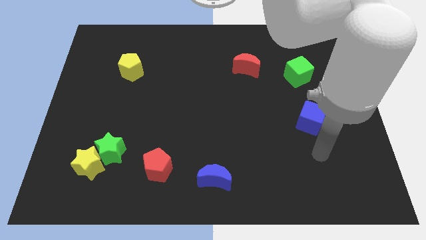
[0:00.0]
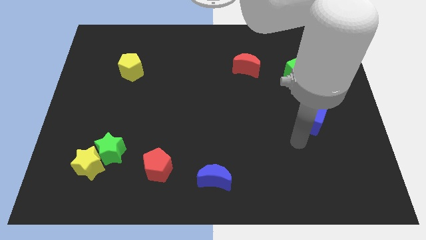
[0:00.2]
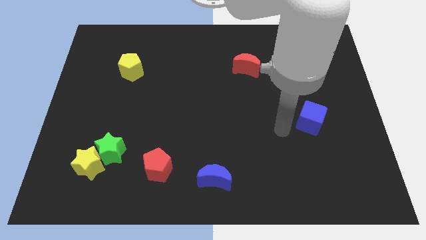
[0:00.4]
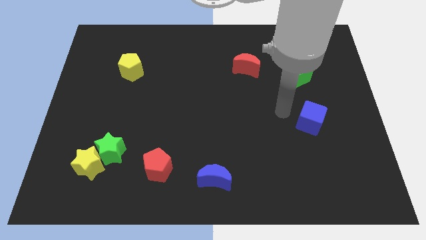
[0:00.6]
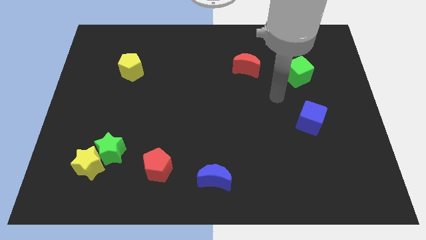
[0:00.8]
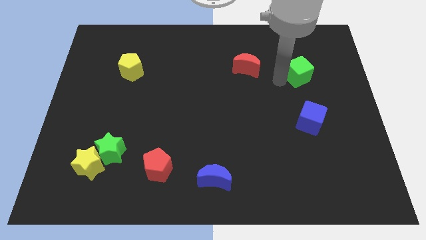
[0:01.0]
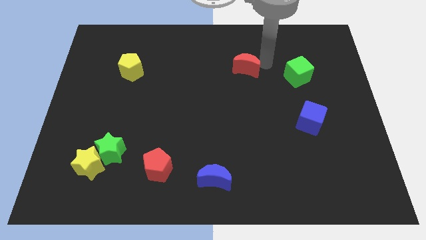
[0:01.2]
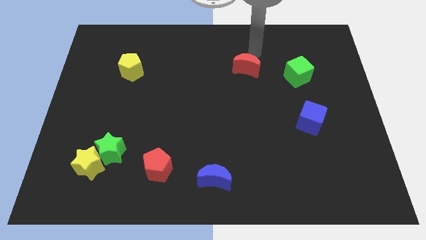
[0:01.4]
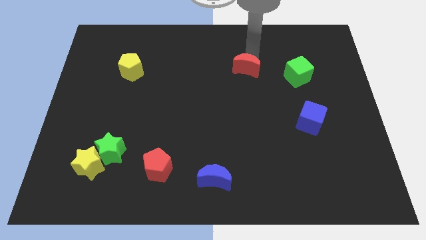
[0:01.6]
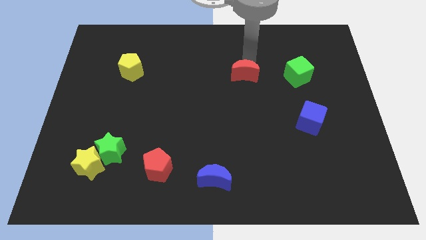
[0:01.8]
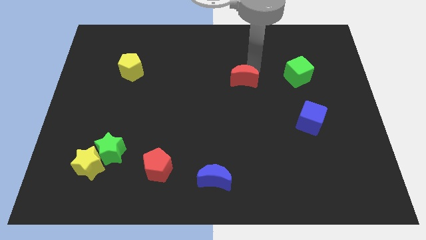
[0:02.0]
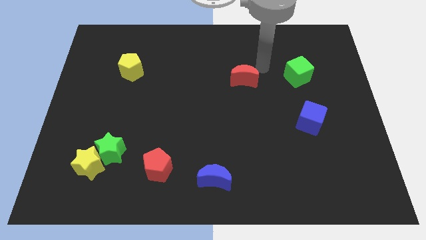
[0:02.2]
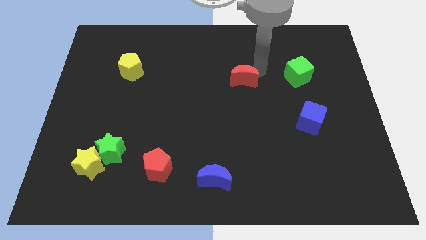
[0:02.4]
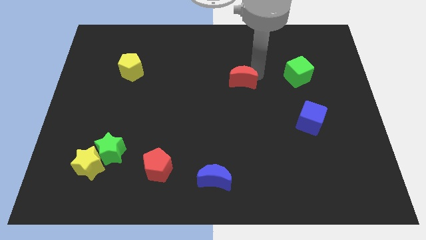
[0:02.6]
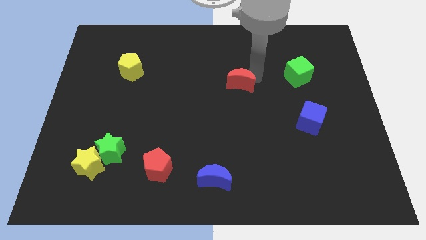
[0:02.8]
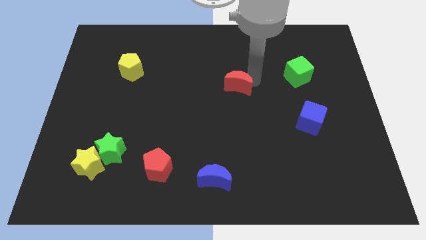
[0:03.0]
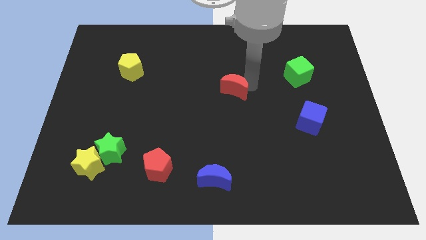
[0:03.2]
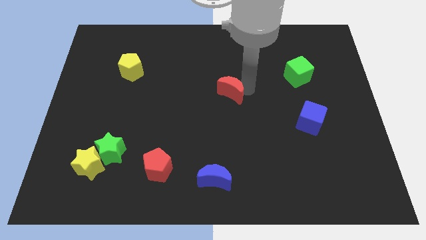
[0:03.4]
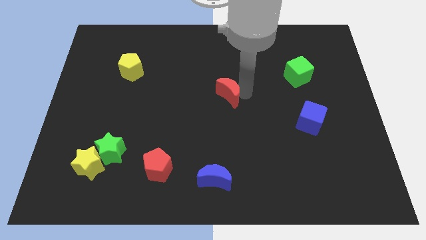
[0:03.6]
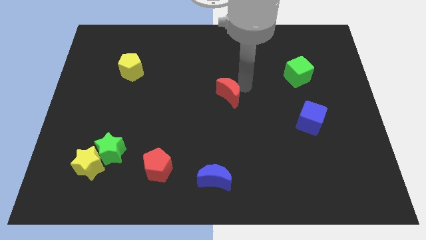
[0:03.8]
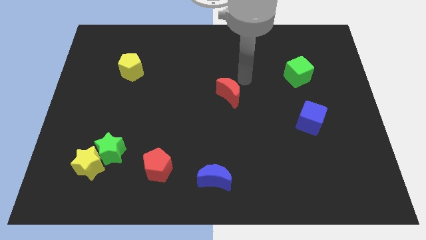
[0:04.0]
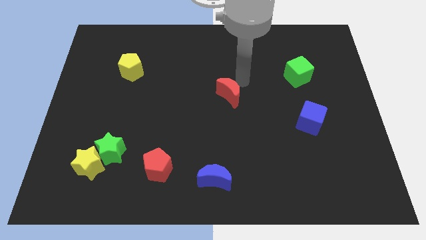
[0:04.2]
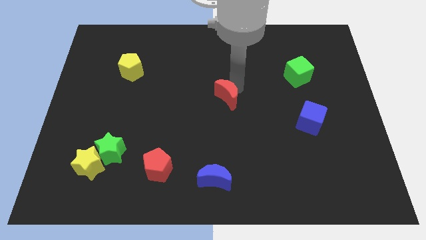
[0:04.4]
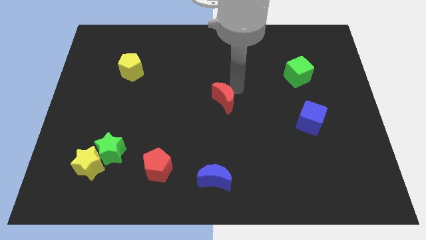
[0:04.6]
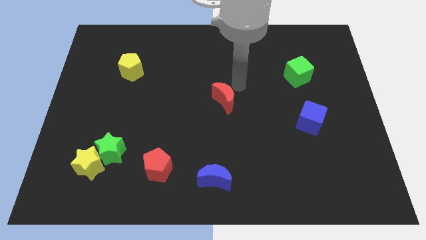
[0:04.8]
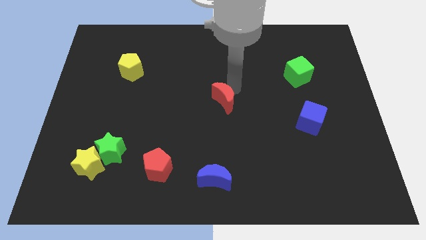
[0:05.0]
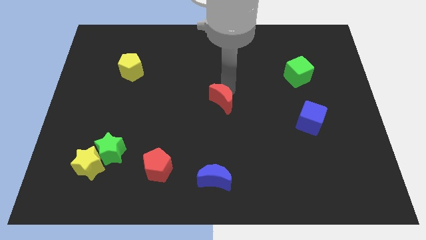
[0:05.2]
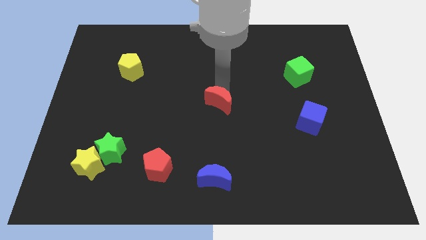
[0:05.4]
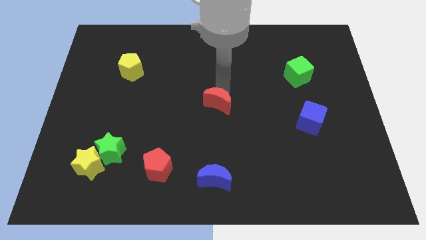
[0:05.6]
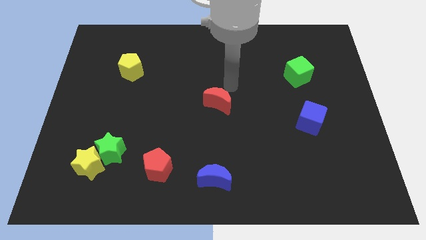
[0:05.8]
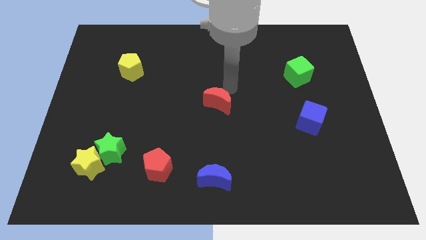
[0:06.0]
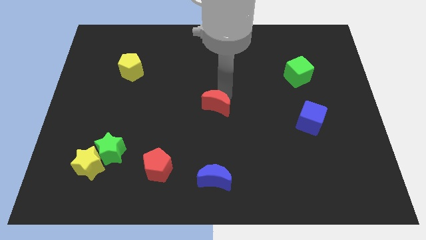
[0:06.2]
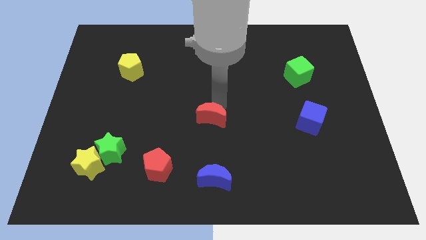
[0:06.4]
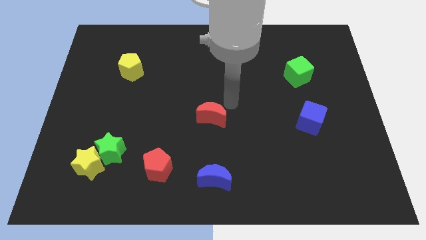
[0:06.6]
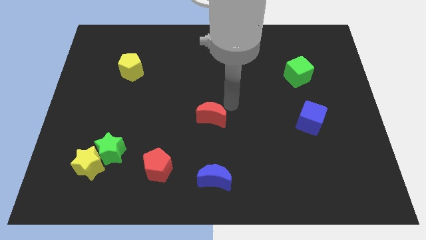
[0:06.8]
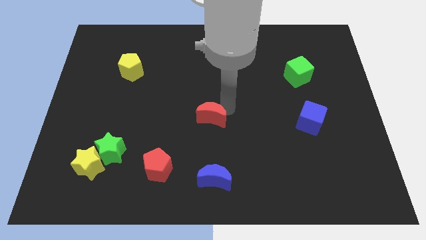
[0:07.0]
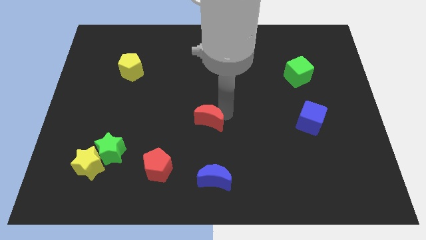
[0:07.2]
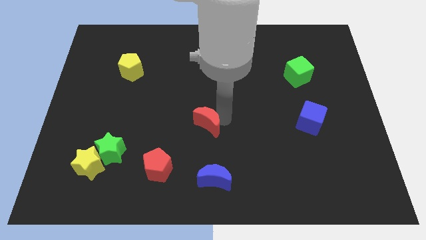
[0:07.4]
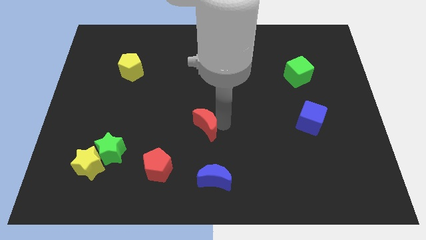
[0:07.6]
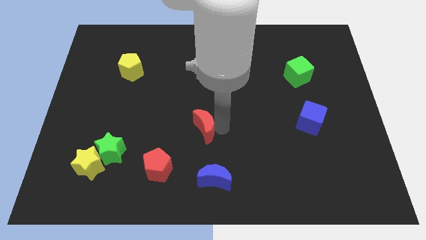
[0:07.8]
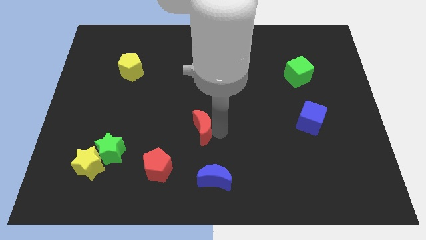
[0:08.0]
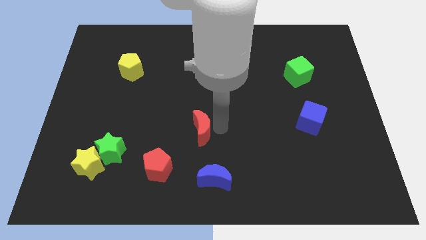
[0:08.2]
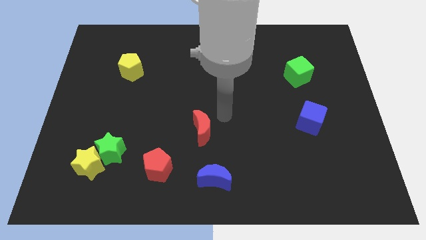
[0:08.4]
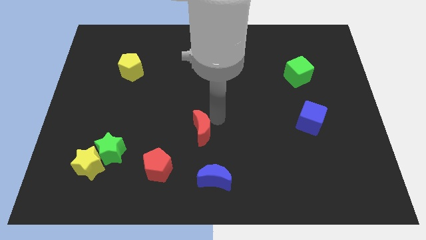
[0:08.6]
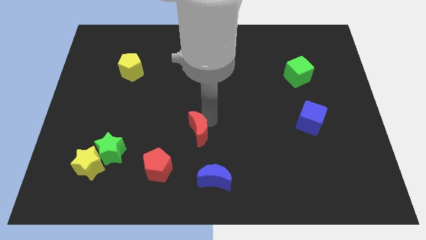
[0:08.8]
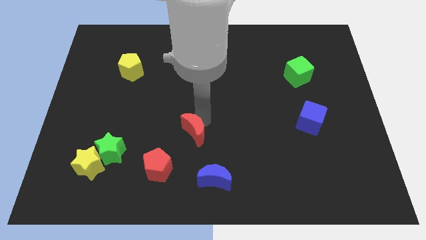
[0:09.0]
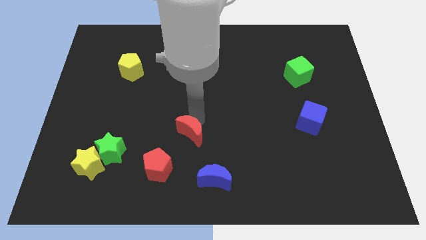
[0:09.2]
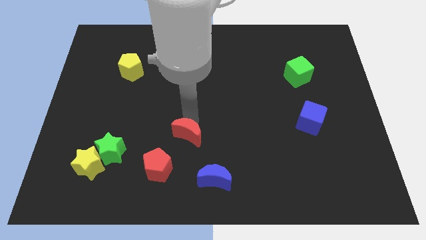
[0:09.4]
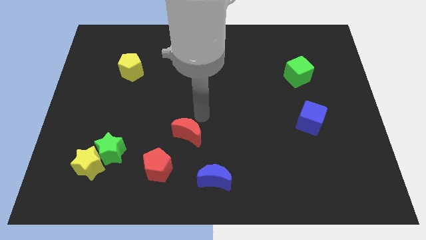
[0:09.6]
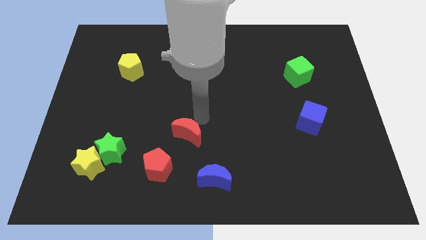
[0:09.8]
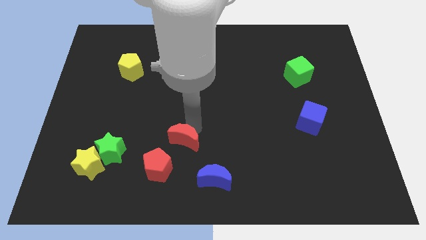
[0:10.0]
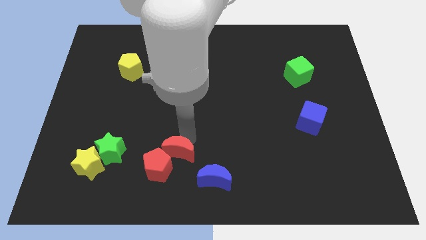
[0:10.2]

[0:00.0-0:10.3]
put the red moon towards the red pentagon

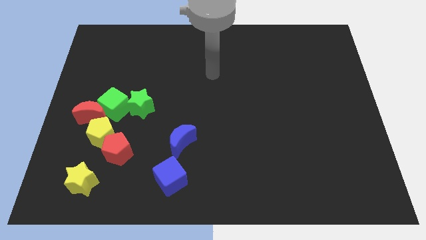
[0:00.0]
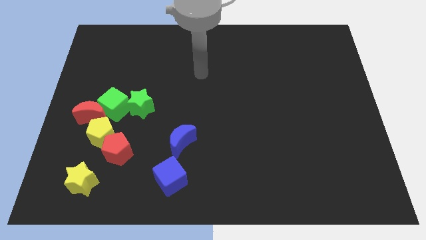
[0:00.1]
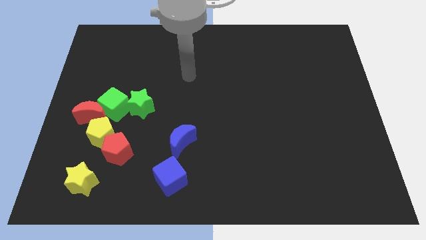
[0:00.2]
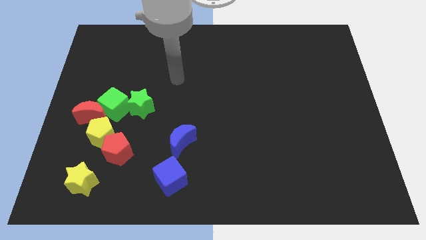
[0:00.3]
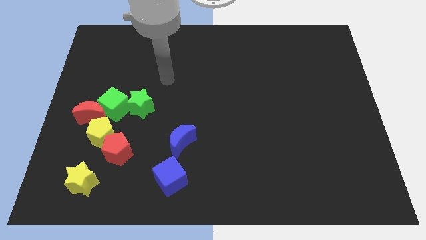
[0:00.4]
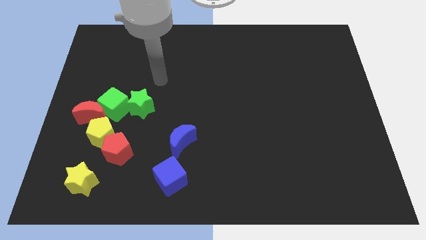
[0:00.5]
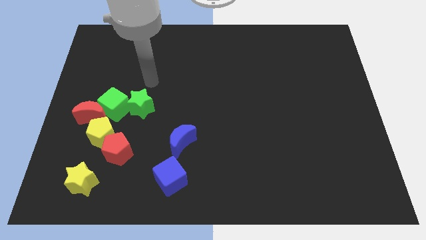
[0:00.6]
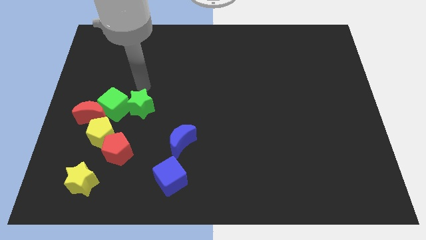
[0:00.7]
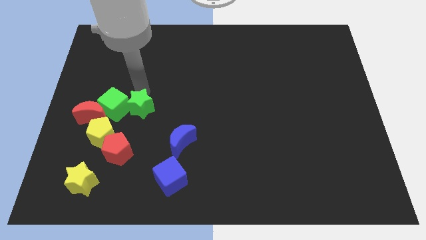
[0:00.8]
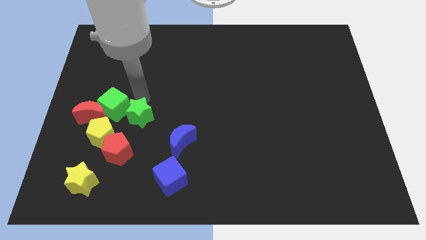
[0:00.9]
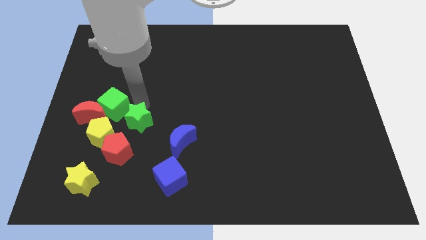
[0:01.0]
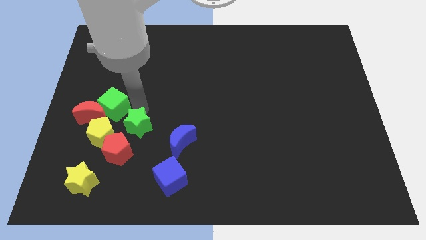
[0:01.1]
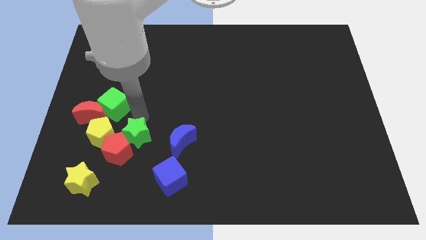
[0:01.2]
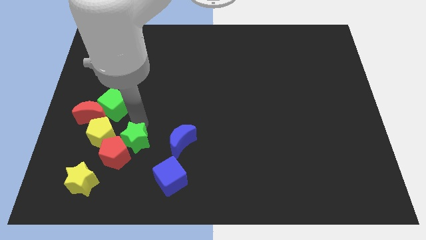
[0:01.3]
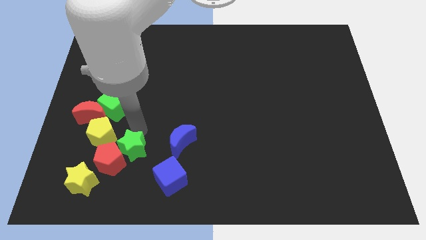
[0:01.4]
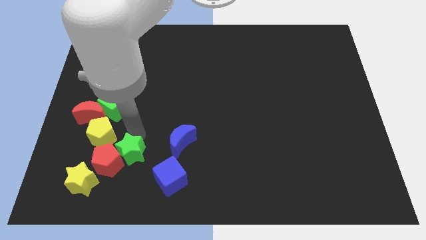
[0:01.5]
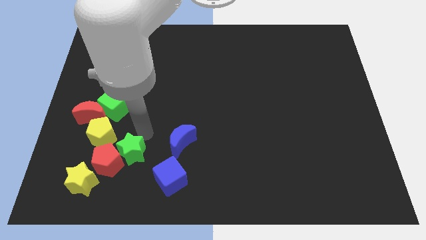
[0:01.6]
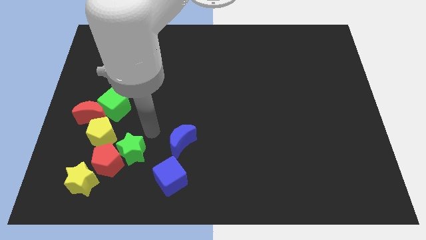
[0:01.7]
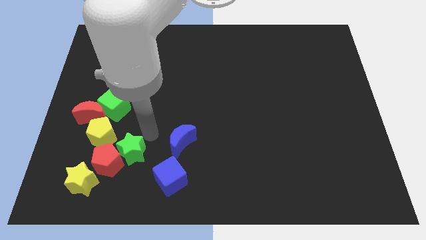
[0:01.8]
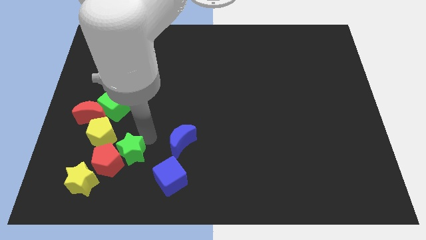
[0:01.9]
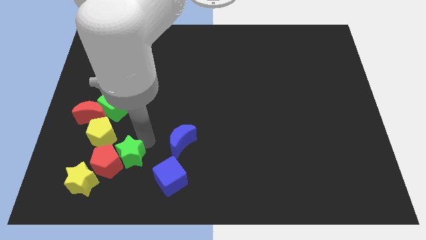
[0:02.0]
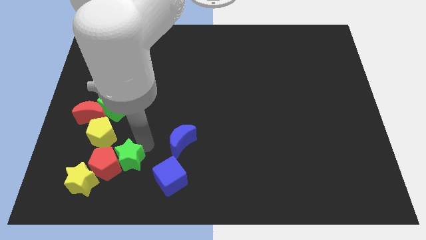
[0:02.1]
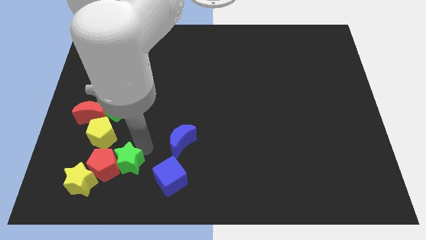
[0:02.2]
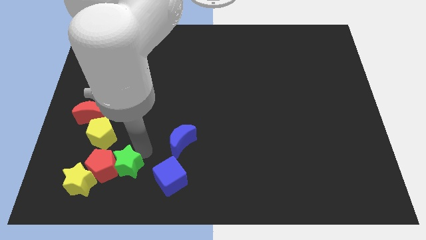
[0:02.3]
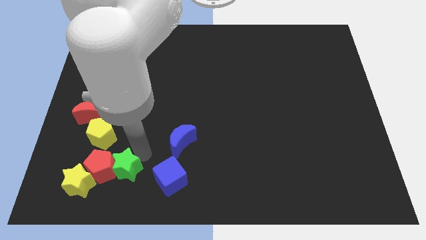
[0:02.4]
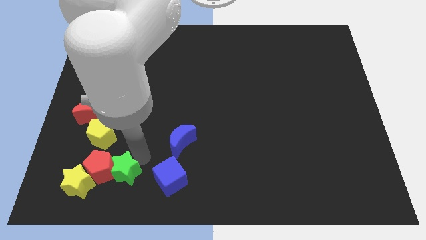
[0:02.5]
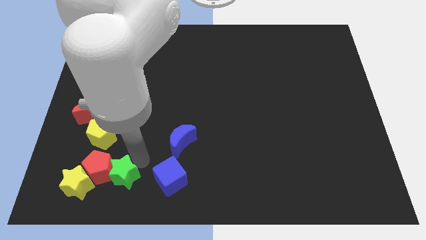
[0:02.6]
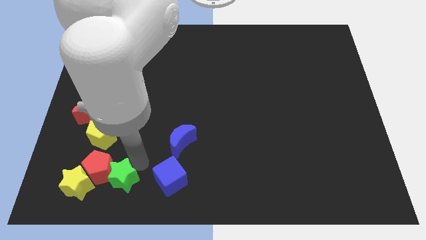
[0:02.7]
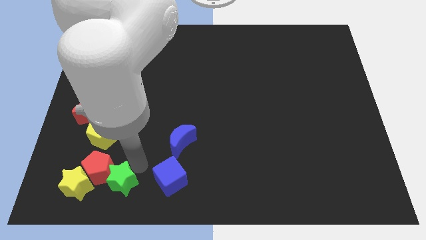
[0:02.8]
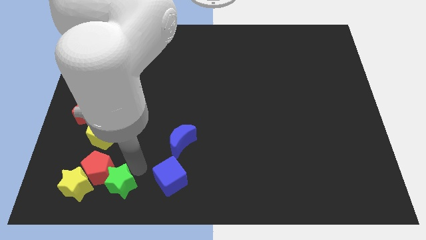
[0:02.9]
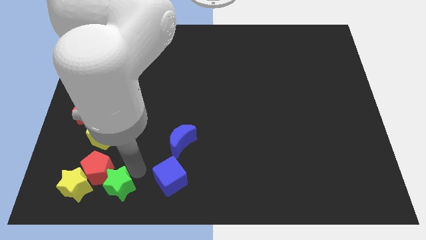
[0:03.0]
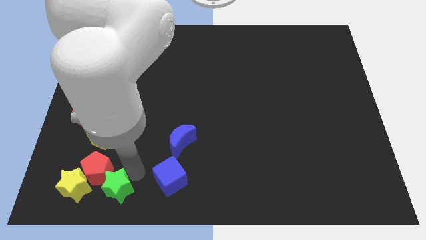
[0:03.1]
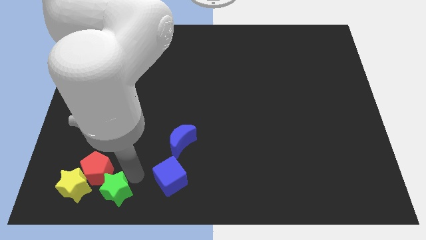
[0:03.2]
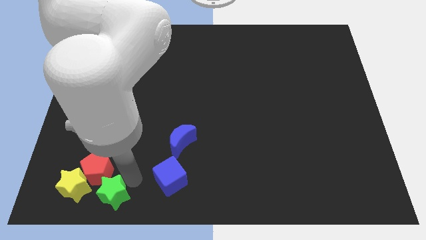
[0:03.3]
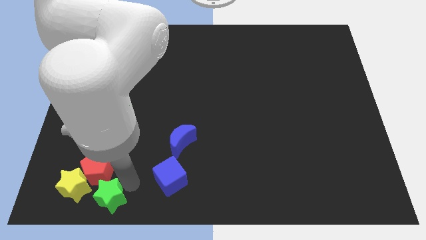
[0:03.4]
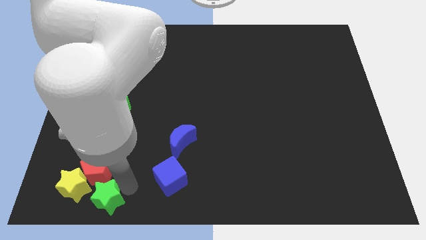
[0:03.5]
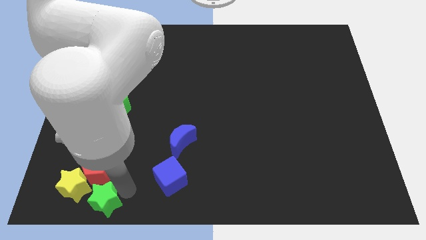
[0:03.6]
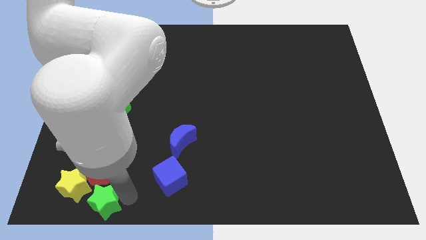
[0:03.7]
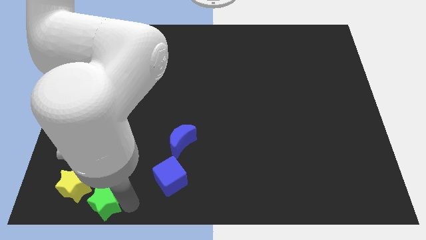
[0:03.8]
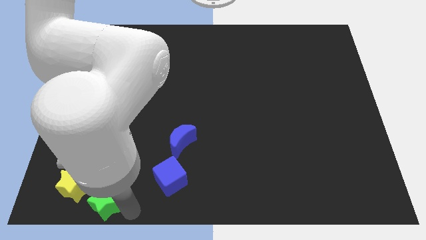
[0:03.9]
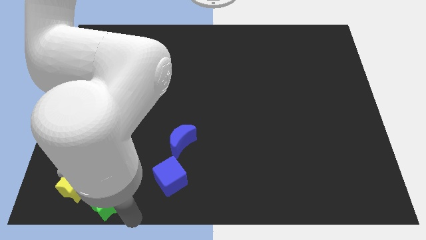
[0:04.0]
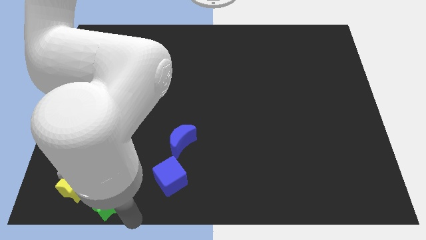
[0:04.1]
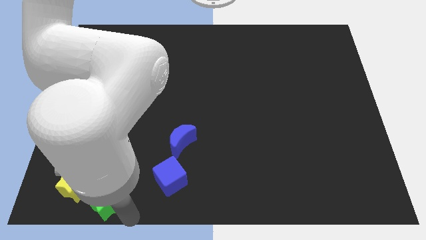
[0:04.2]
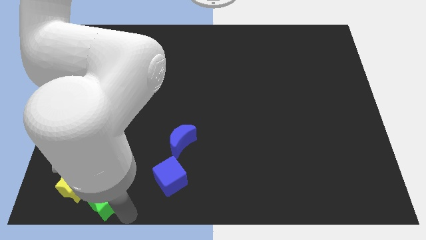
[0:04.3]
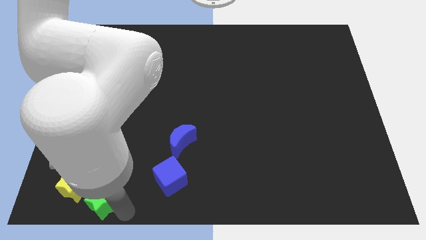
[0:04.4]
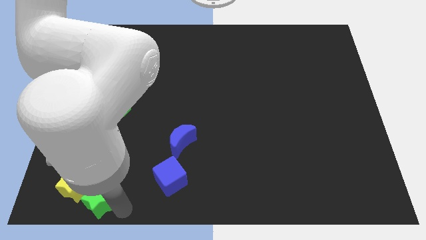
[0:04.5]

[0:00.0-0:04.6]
move the green star to the yellow star
